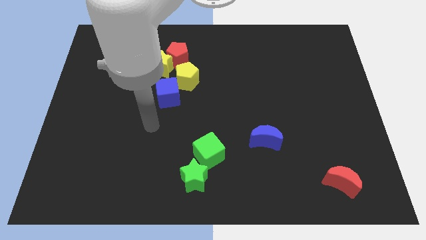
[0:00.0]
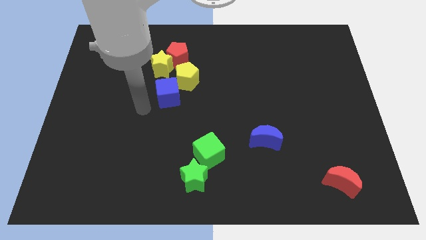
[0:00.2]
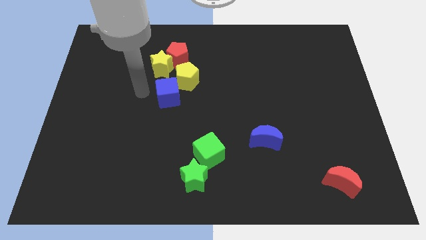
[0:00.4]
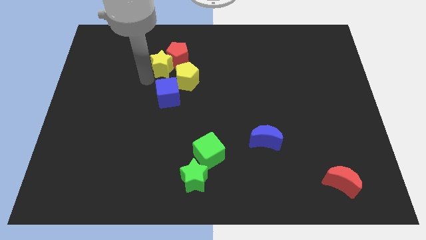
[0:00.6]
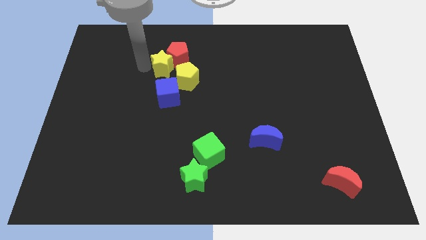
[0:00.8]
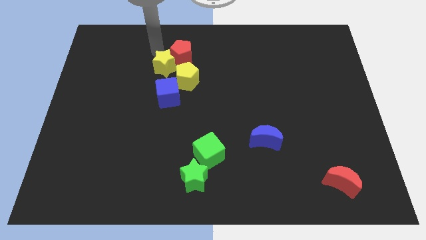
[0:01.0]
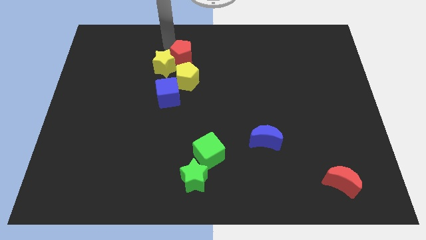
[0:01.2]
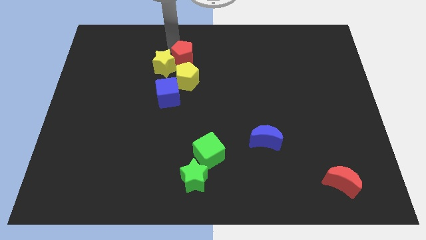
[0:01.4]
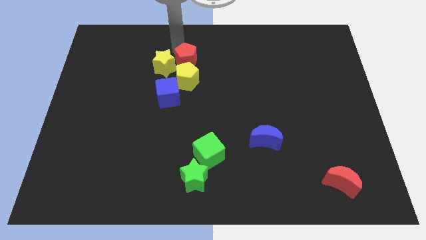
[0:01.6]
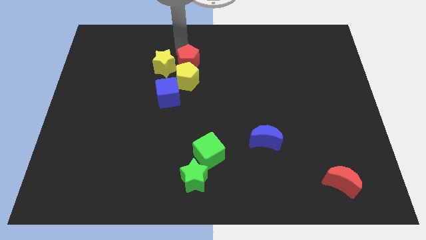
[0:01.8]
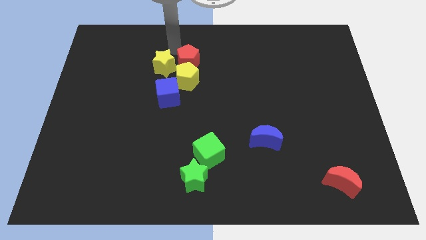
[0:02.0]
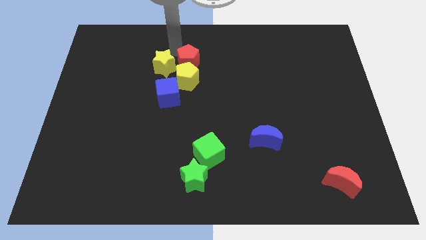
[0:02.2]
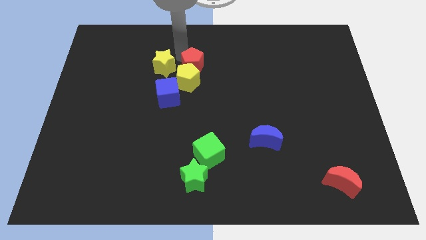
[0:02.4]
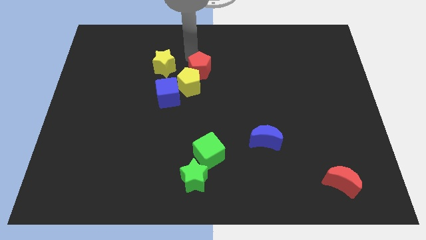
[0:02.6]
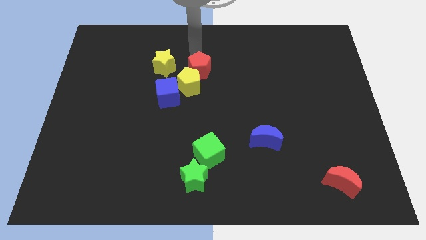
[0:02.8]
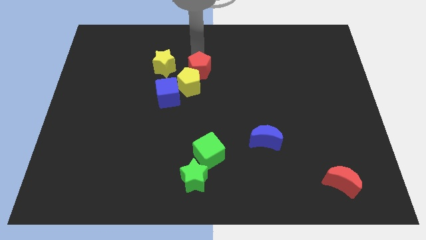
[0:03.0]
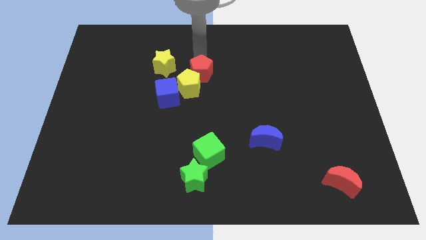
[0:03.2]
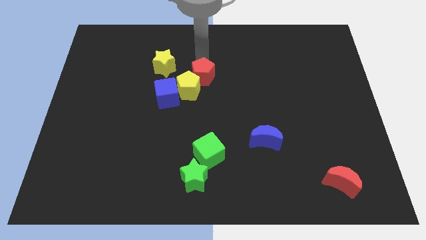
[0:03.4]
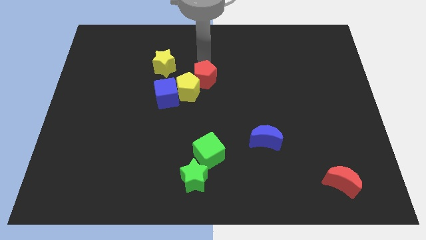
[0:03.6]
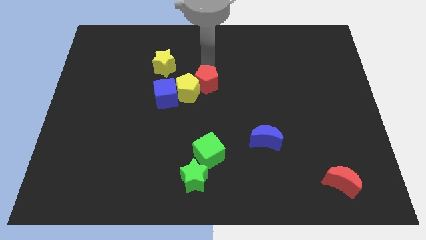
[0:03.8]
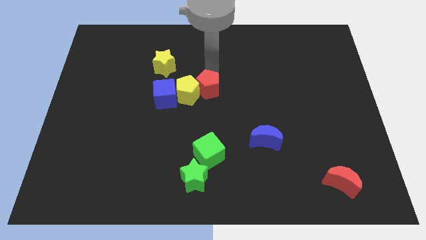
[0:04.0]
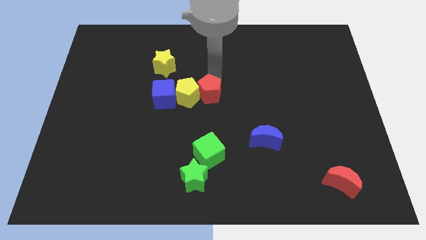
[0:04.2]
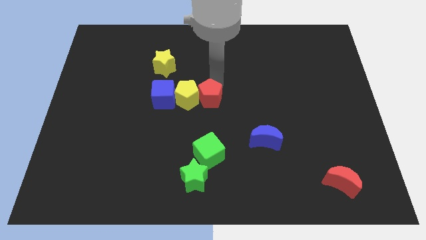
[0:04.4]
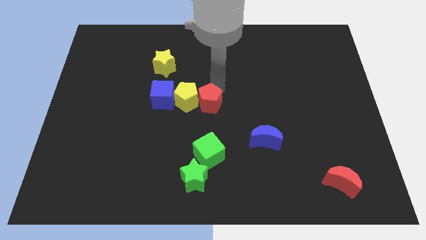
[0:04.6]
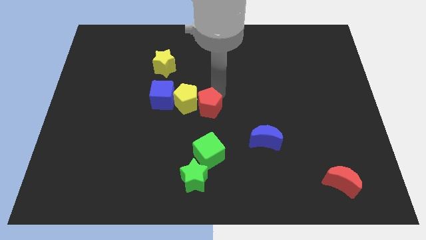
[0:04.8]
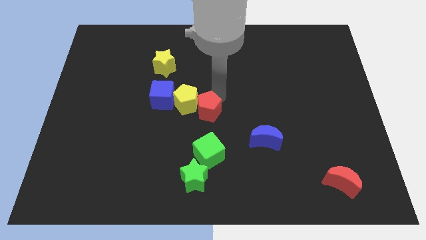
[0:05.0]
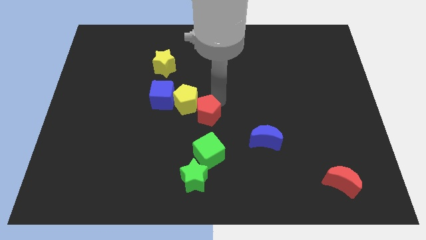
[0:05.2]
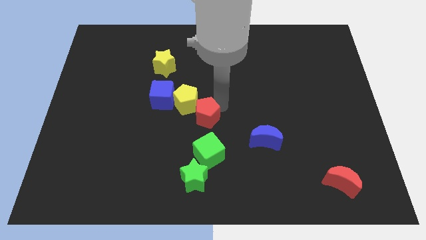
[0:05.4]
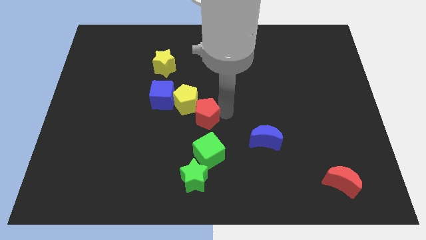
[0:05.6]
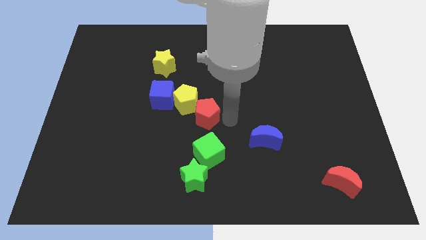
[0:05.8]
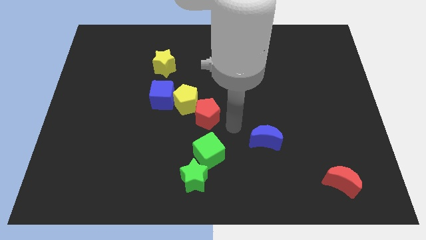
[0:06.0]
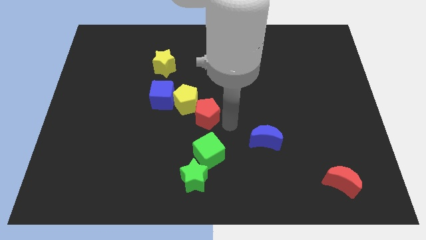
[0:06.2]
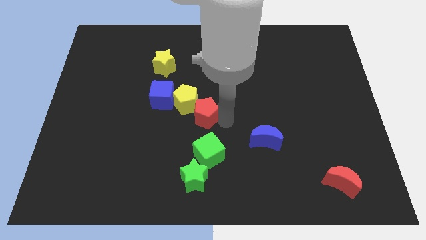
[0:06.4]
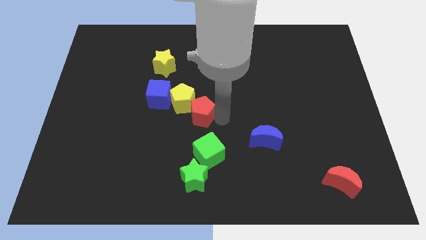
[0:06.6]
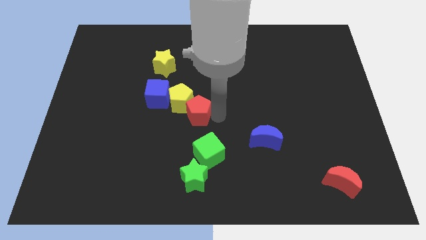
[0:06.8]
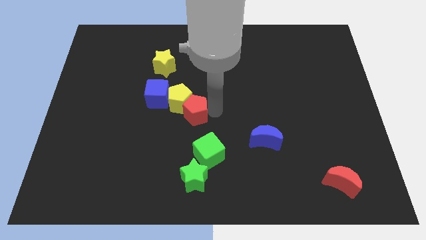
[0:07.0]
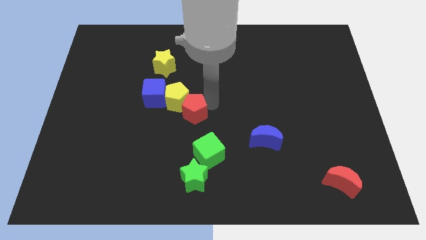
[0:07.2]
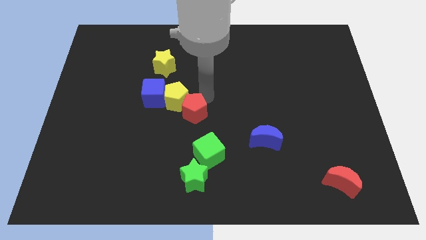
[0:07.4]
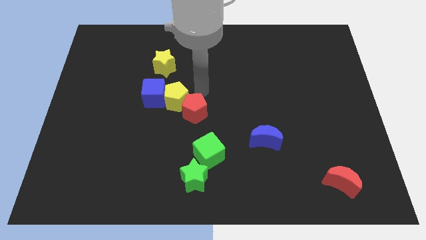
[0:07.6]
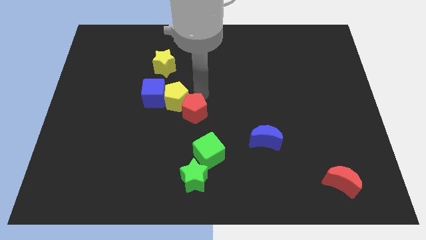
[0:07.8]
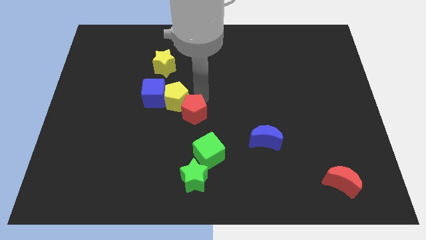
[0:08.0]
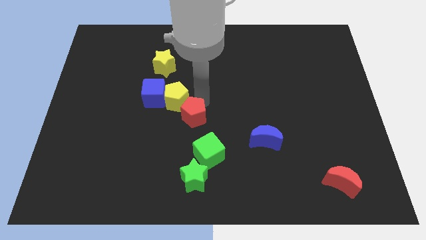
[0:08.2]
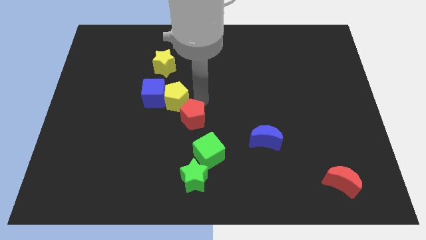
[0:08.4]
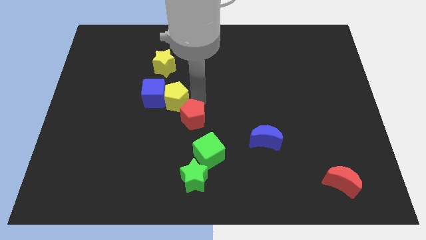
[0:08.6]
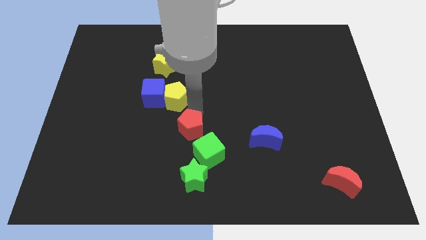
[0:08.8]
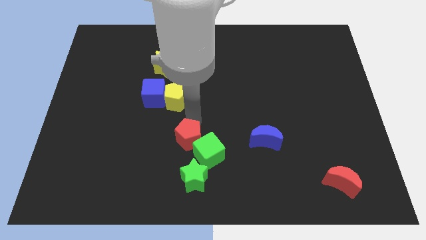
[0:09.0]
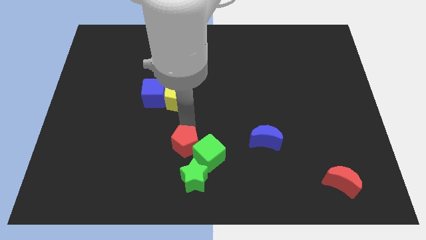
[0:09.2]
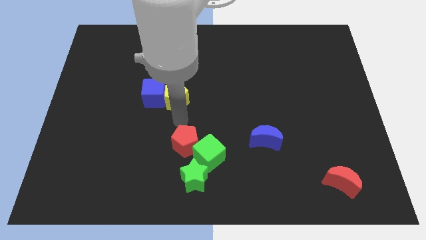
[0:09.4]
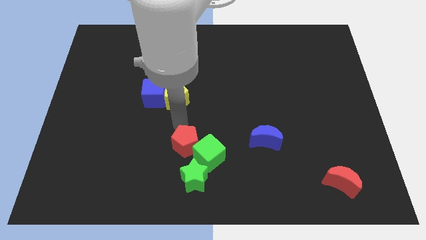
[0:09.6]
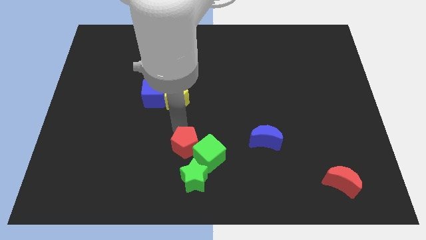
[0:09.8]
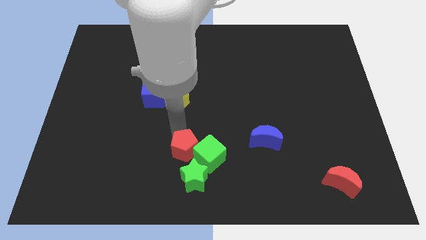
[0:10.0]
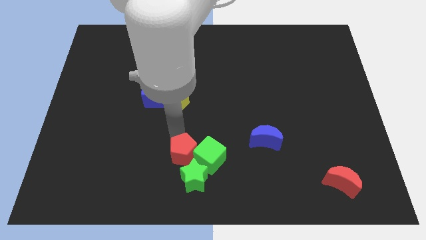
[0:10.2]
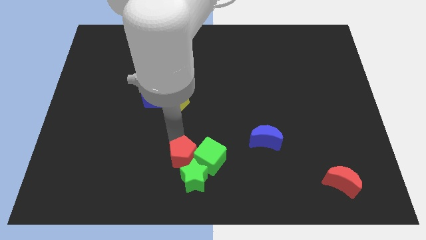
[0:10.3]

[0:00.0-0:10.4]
slide the red pentagon close to the green star

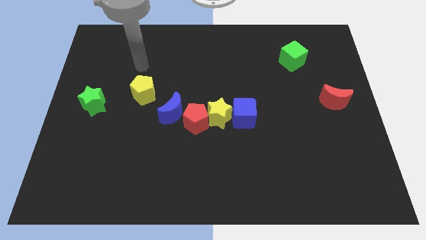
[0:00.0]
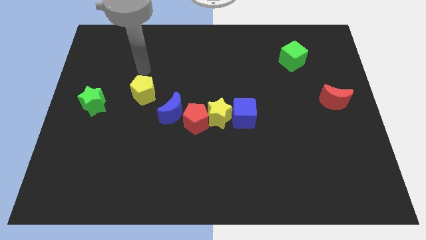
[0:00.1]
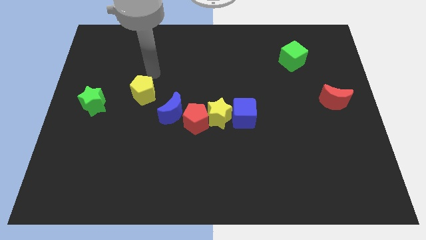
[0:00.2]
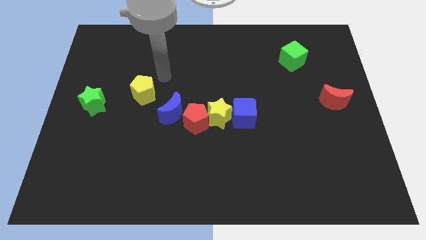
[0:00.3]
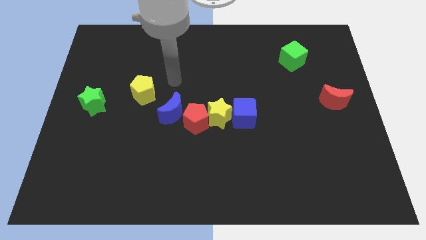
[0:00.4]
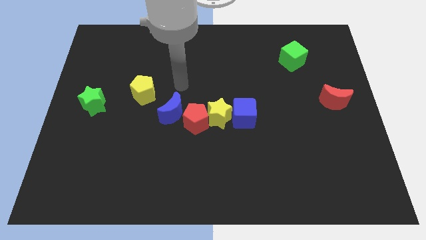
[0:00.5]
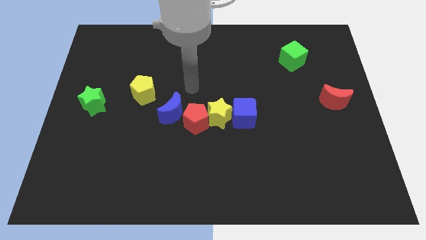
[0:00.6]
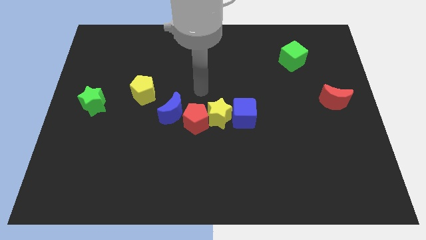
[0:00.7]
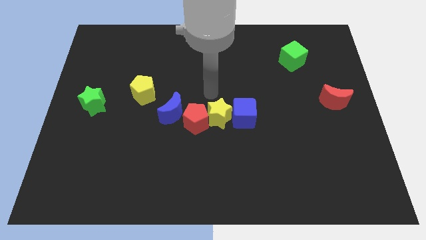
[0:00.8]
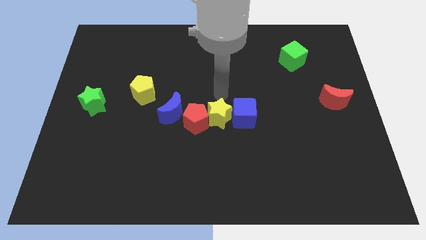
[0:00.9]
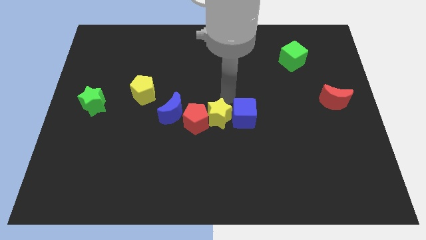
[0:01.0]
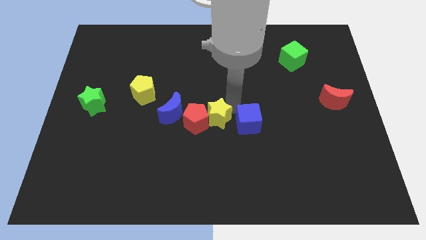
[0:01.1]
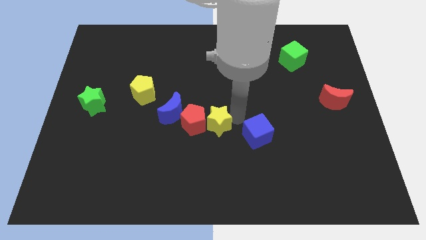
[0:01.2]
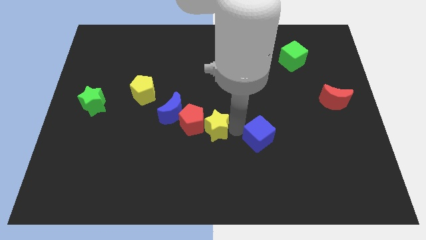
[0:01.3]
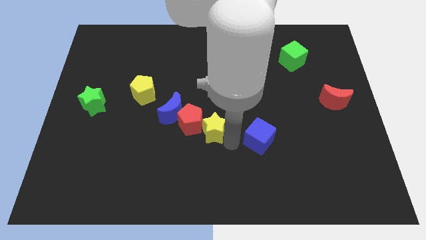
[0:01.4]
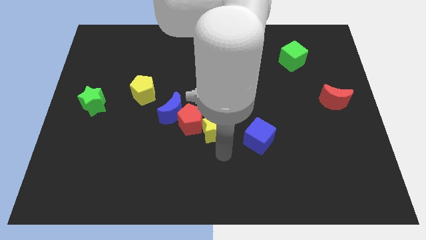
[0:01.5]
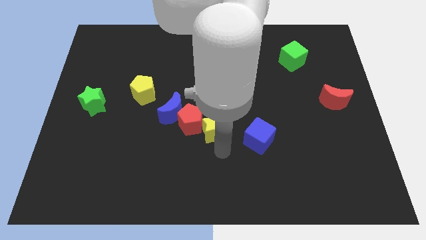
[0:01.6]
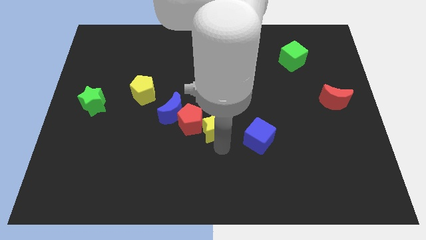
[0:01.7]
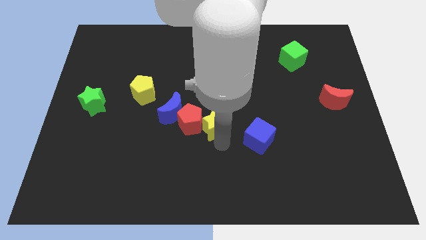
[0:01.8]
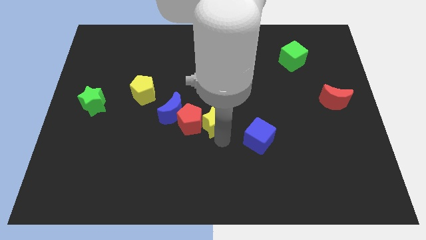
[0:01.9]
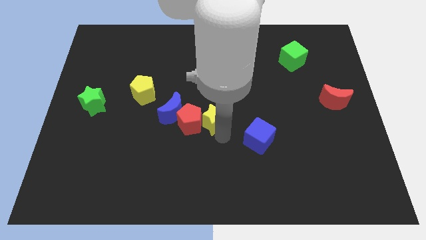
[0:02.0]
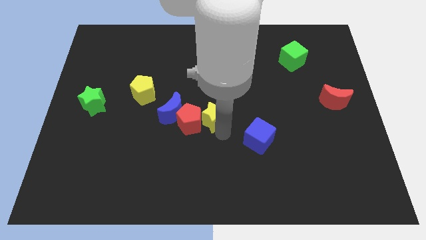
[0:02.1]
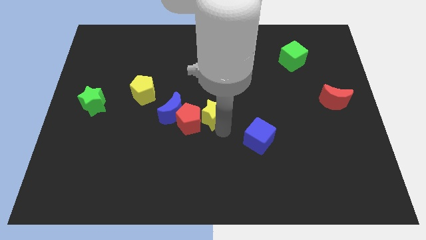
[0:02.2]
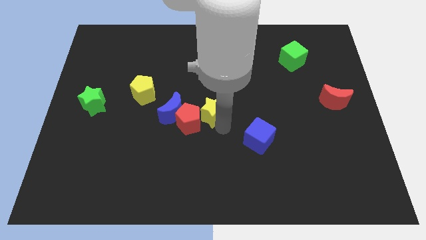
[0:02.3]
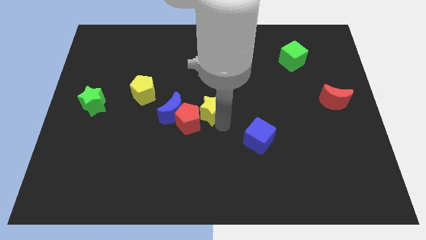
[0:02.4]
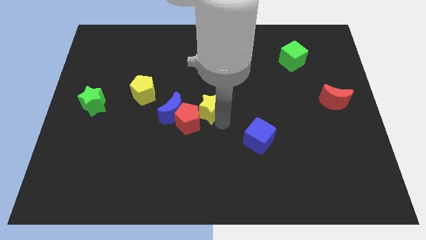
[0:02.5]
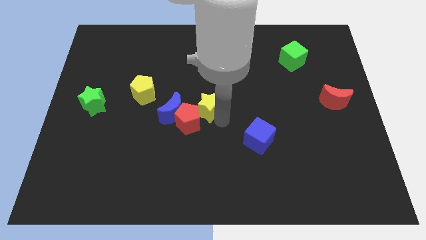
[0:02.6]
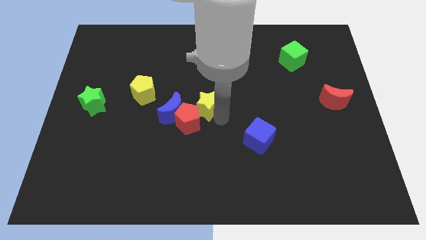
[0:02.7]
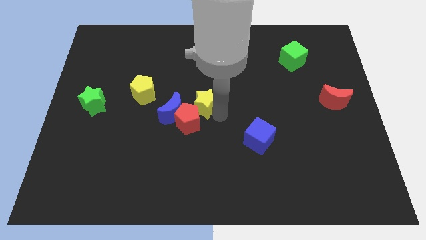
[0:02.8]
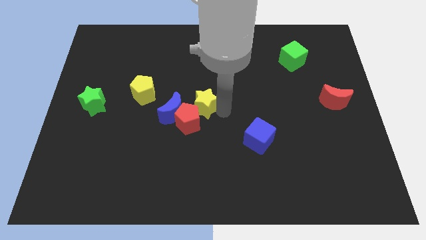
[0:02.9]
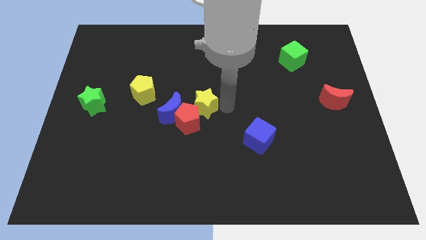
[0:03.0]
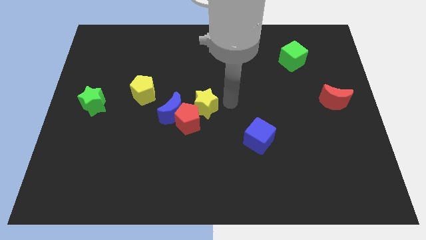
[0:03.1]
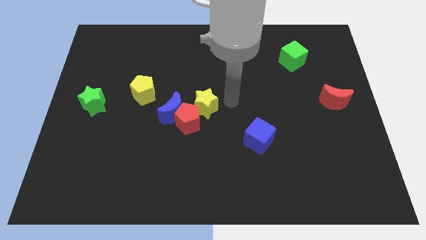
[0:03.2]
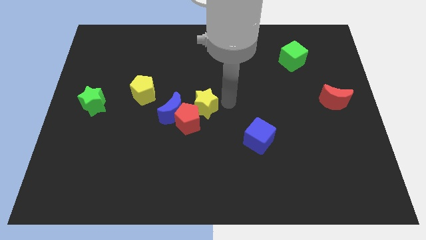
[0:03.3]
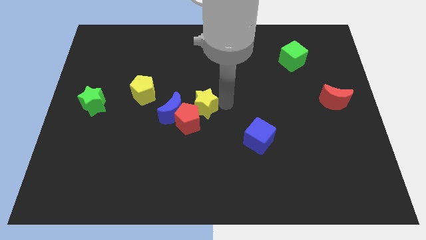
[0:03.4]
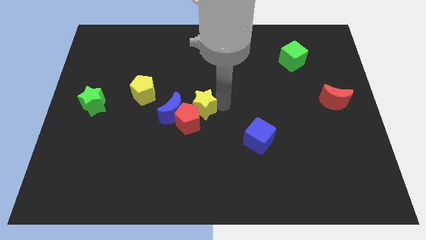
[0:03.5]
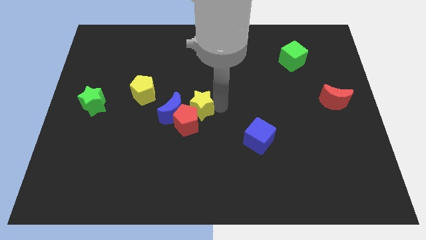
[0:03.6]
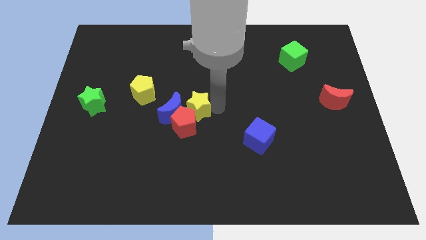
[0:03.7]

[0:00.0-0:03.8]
slide the yellow star towards the blue moon
